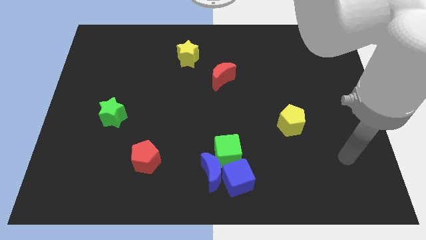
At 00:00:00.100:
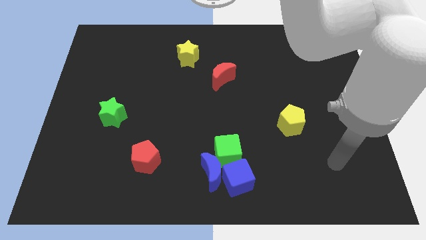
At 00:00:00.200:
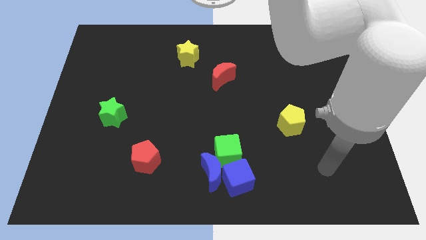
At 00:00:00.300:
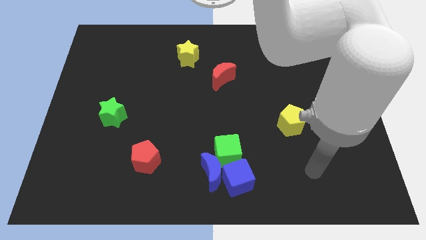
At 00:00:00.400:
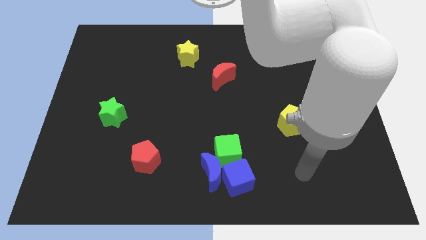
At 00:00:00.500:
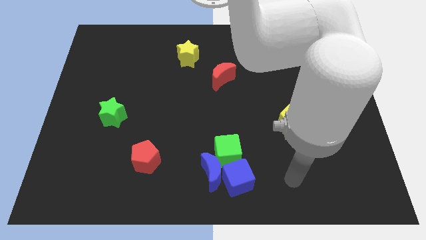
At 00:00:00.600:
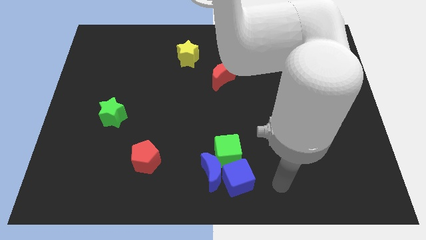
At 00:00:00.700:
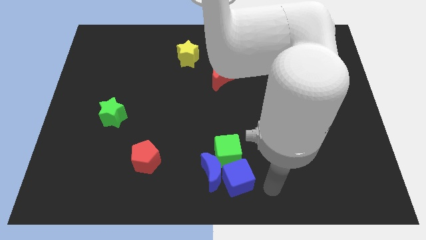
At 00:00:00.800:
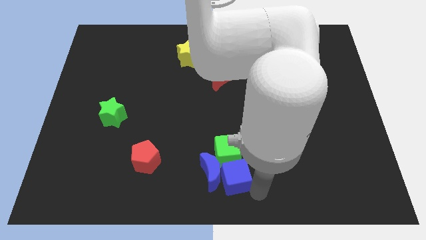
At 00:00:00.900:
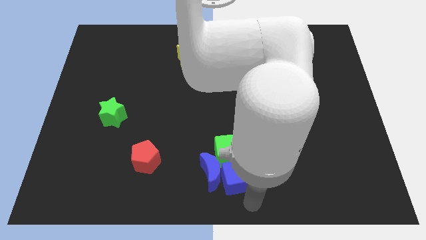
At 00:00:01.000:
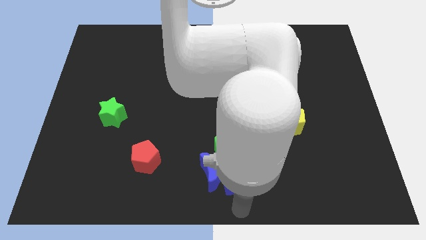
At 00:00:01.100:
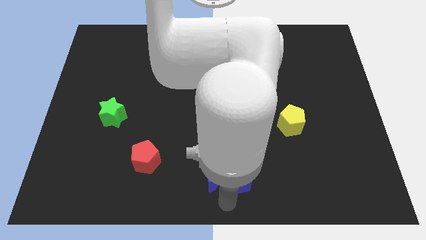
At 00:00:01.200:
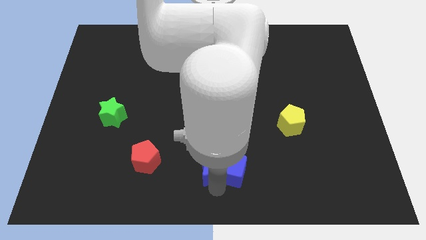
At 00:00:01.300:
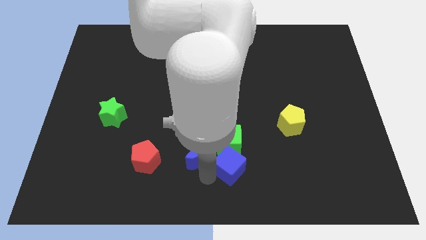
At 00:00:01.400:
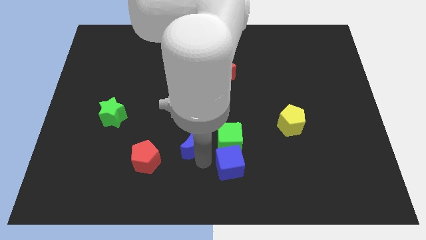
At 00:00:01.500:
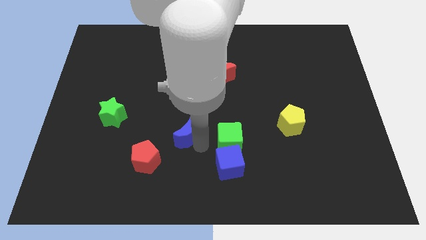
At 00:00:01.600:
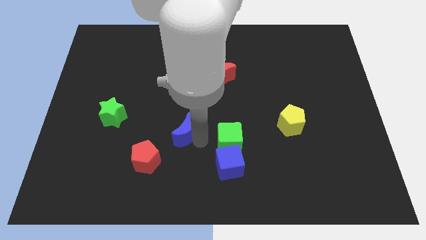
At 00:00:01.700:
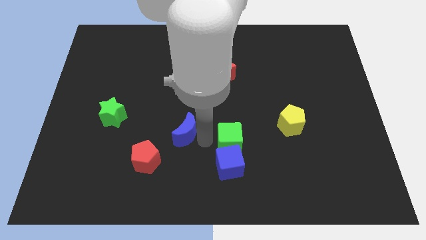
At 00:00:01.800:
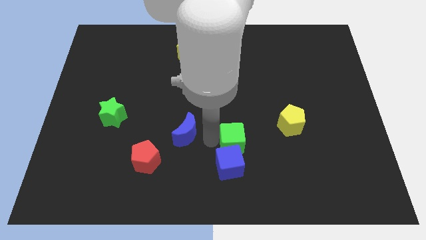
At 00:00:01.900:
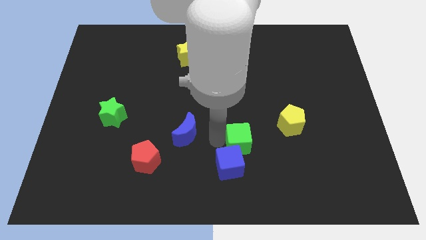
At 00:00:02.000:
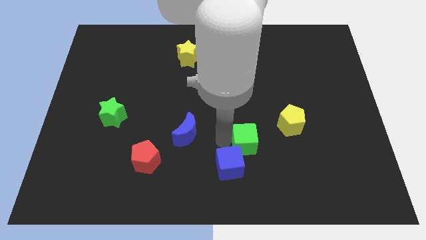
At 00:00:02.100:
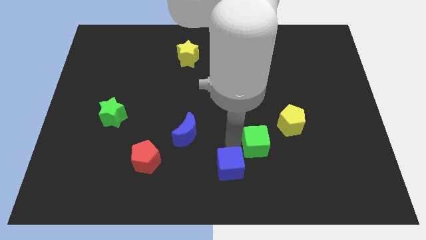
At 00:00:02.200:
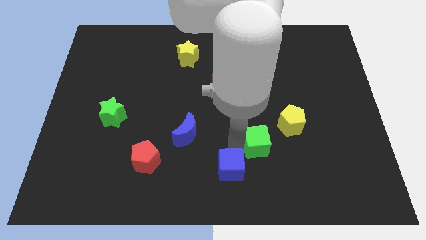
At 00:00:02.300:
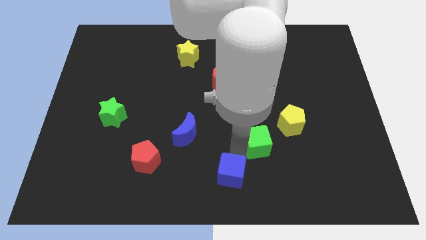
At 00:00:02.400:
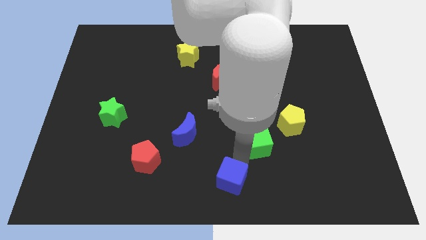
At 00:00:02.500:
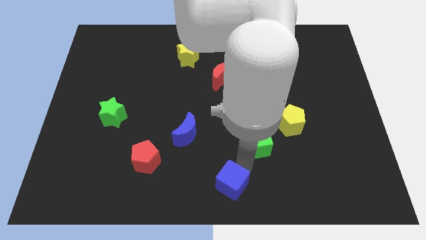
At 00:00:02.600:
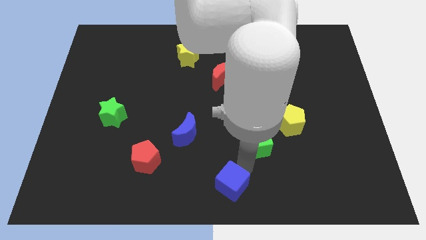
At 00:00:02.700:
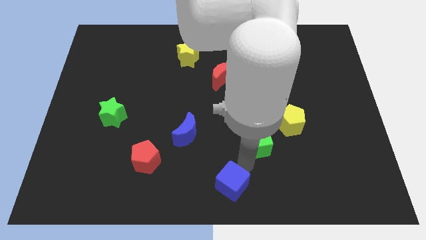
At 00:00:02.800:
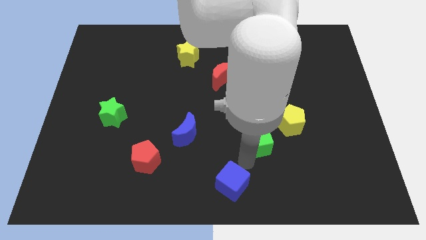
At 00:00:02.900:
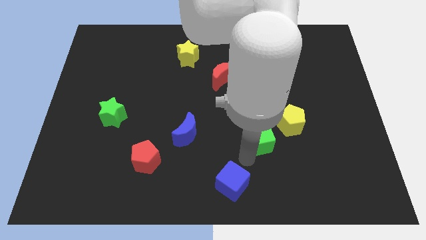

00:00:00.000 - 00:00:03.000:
move the green cube a little up and then right

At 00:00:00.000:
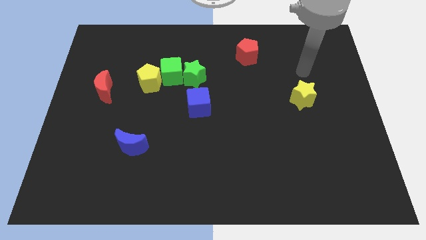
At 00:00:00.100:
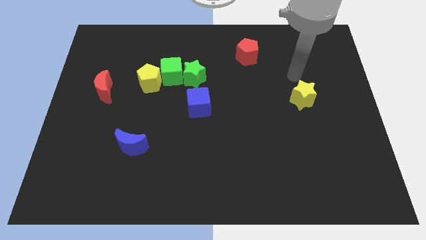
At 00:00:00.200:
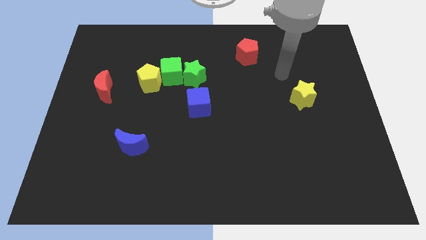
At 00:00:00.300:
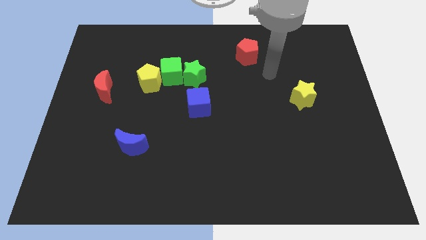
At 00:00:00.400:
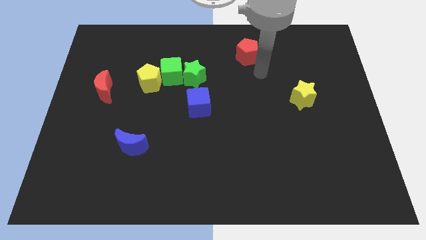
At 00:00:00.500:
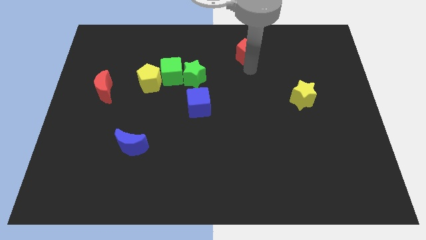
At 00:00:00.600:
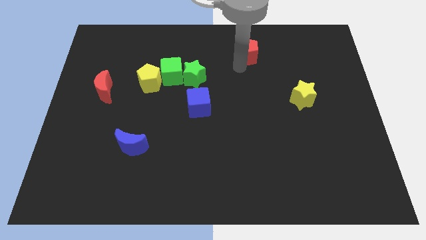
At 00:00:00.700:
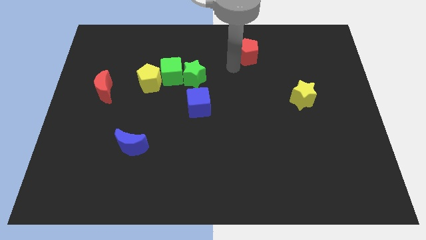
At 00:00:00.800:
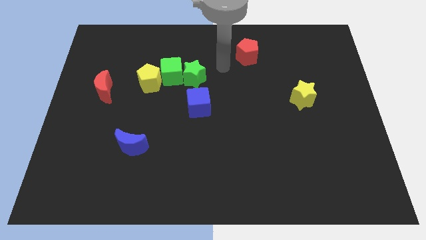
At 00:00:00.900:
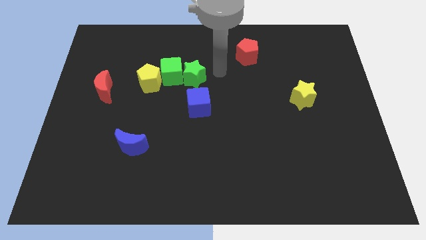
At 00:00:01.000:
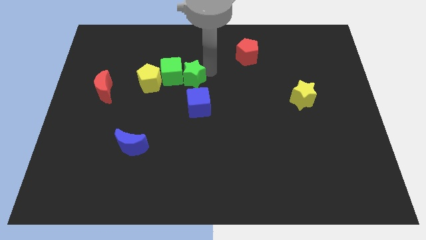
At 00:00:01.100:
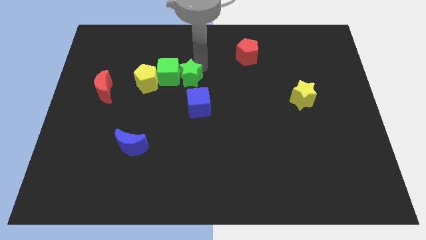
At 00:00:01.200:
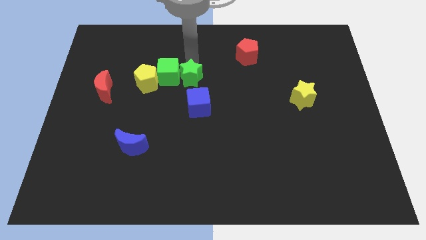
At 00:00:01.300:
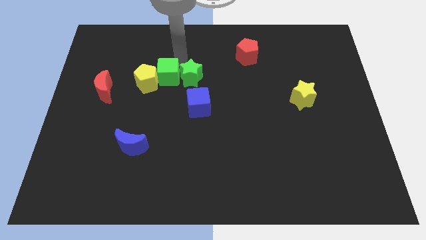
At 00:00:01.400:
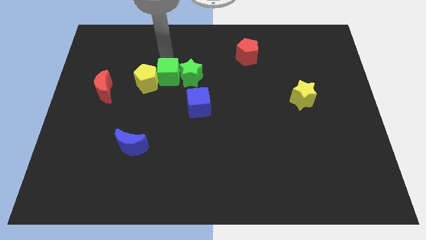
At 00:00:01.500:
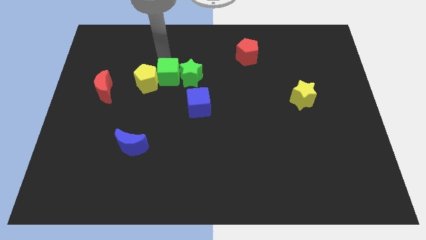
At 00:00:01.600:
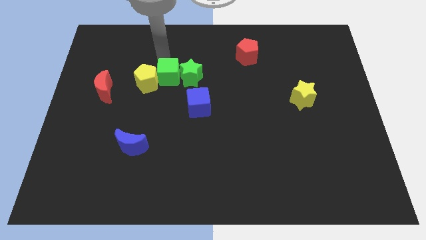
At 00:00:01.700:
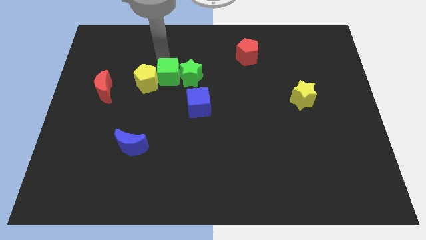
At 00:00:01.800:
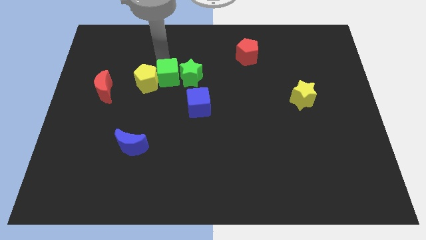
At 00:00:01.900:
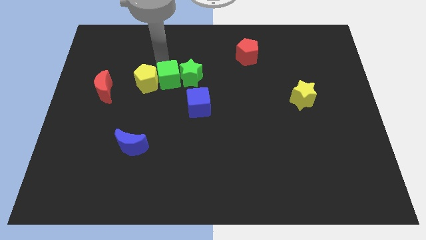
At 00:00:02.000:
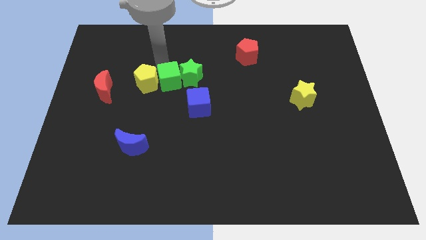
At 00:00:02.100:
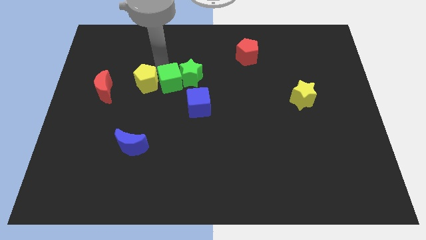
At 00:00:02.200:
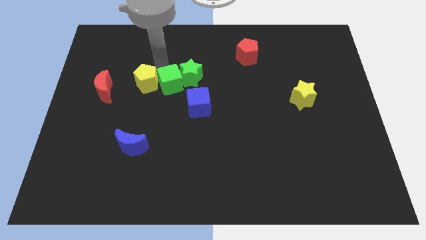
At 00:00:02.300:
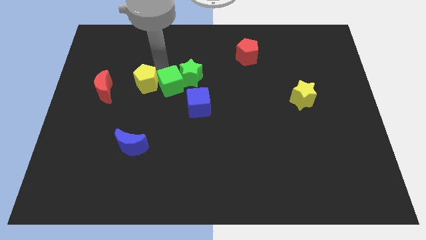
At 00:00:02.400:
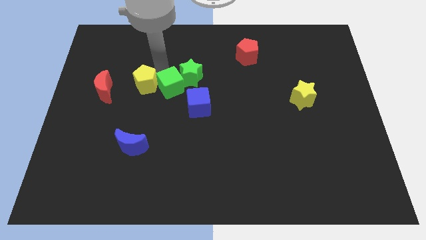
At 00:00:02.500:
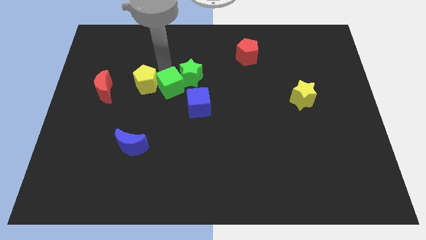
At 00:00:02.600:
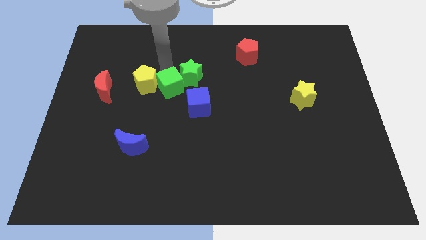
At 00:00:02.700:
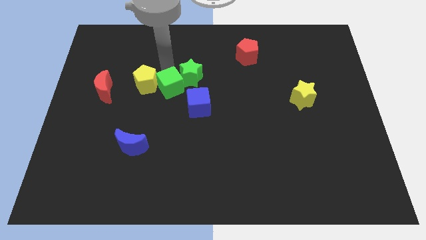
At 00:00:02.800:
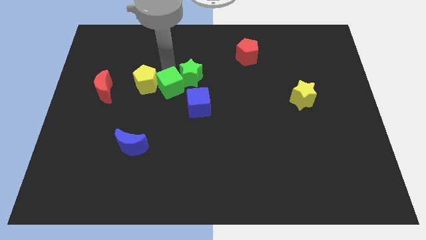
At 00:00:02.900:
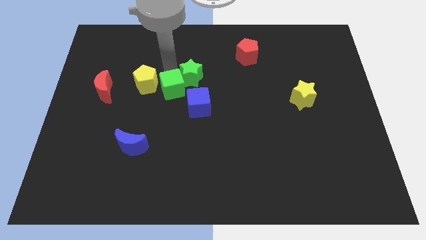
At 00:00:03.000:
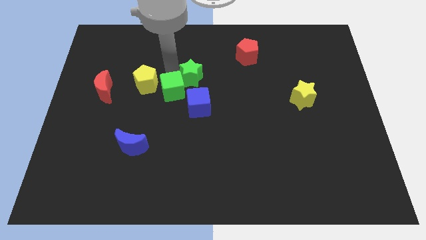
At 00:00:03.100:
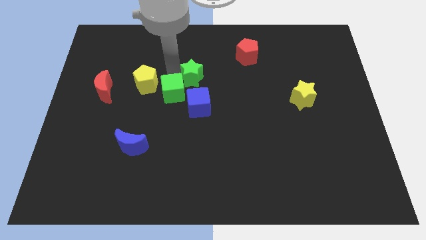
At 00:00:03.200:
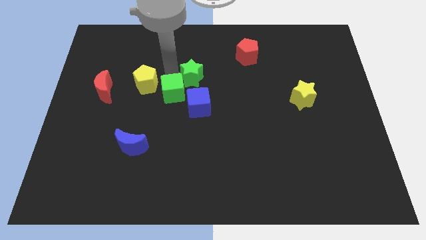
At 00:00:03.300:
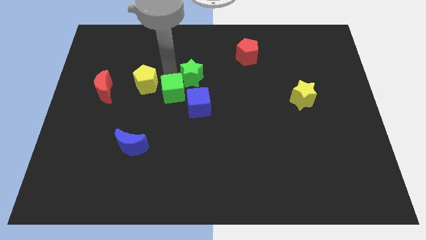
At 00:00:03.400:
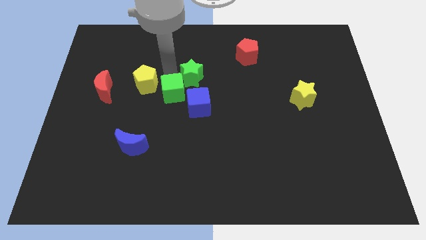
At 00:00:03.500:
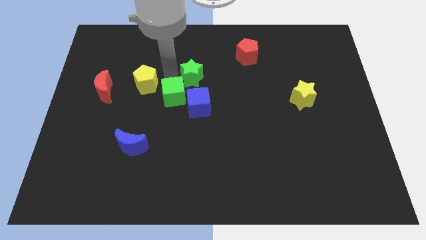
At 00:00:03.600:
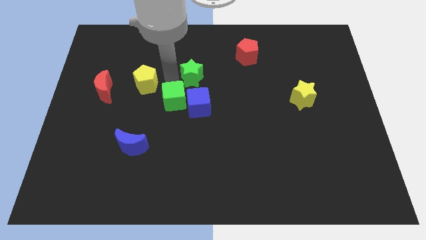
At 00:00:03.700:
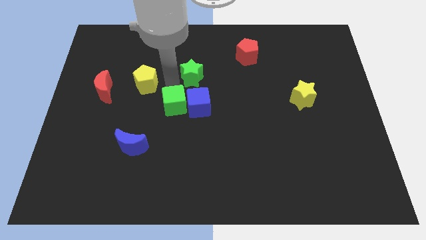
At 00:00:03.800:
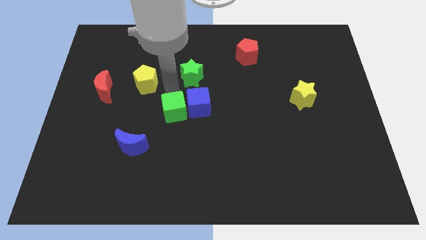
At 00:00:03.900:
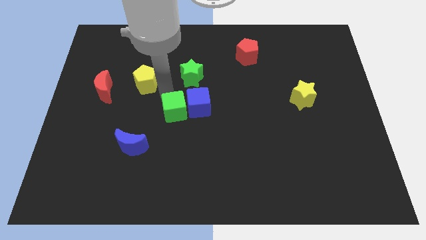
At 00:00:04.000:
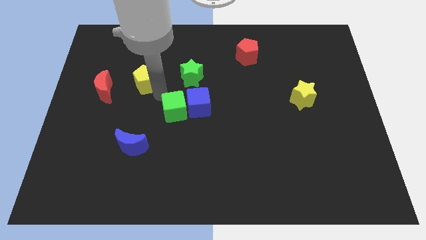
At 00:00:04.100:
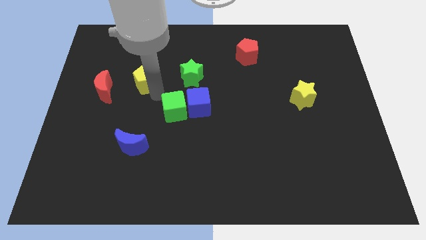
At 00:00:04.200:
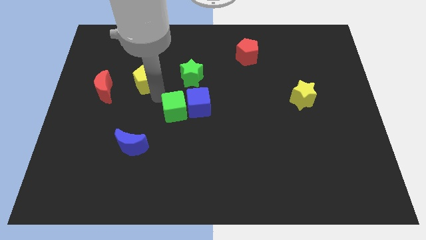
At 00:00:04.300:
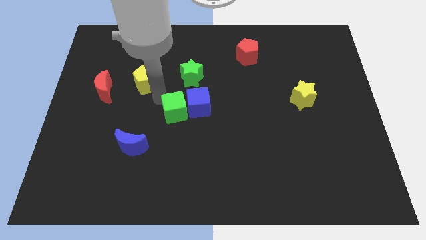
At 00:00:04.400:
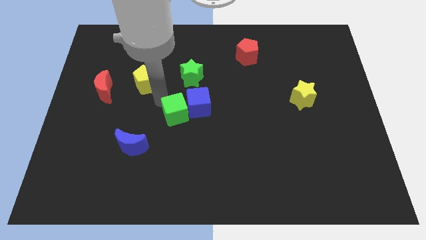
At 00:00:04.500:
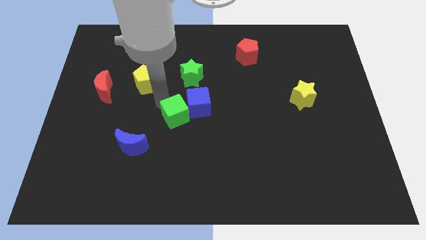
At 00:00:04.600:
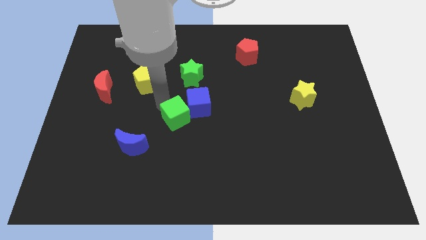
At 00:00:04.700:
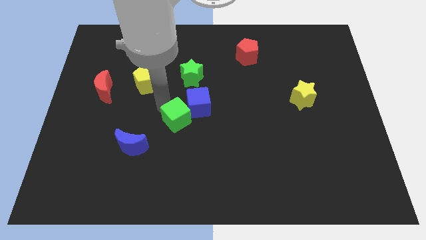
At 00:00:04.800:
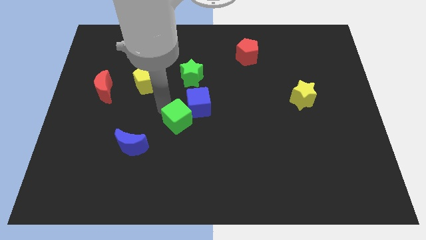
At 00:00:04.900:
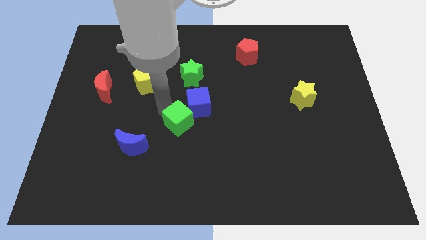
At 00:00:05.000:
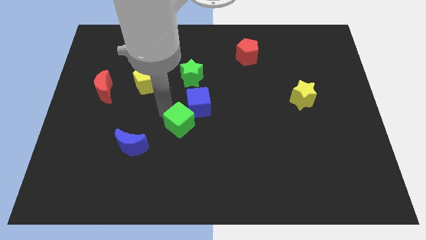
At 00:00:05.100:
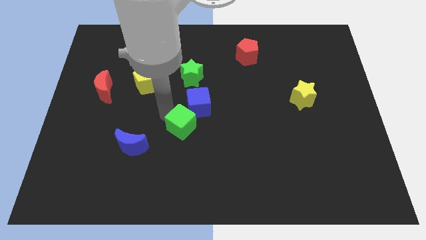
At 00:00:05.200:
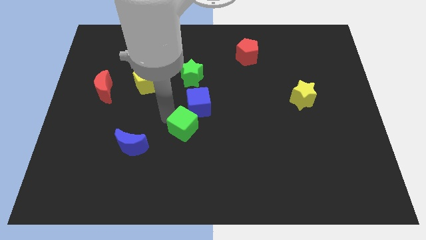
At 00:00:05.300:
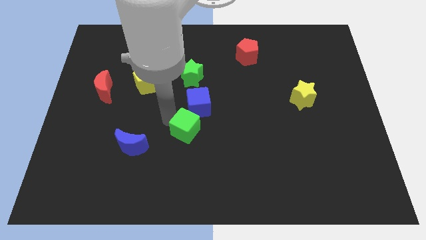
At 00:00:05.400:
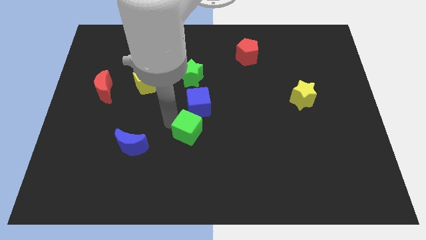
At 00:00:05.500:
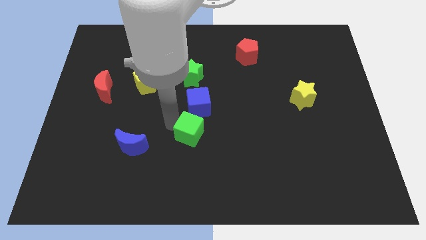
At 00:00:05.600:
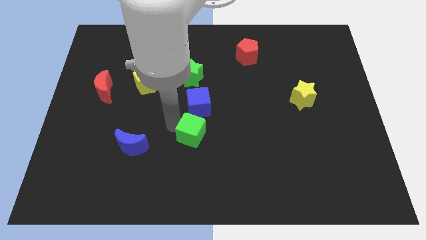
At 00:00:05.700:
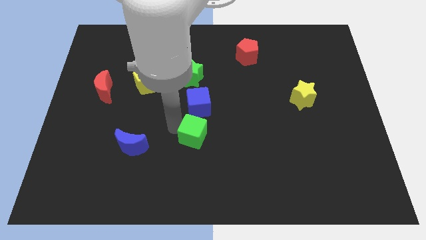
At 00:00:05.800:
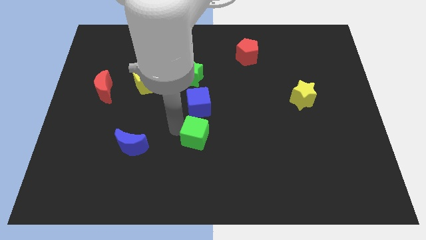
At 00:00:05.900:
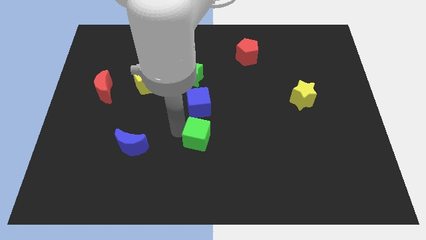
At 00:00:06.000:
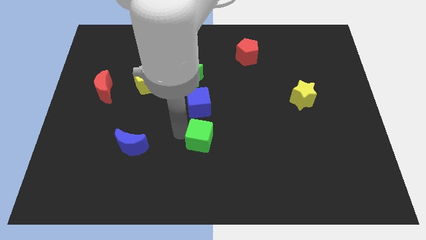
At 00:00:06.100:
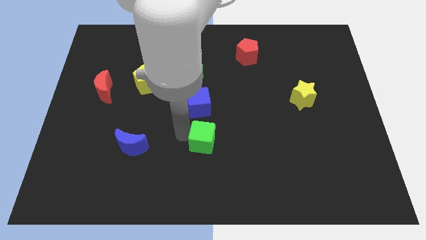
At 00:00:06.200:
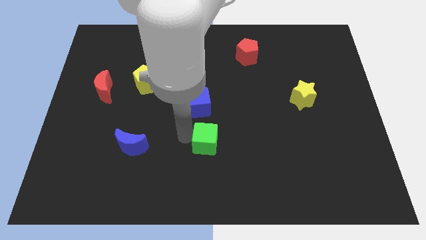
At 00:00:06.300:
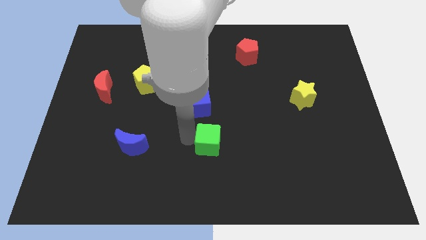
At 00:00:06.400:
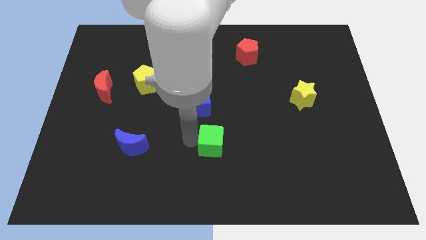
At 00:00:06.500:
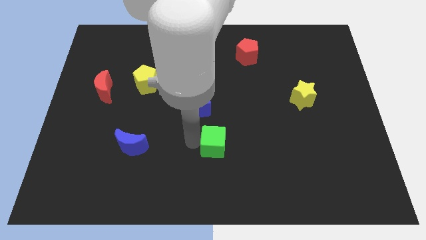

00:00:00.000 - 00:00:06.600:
slide the green cube down and right diagonally
